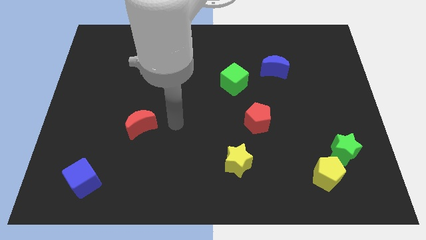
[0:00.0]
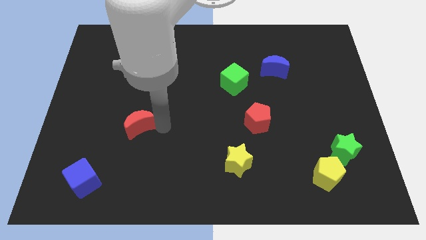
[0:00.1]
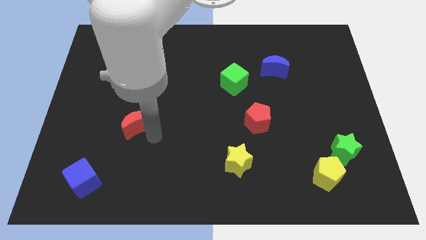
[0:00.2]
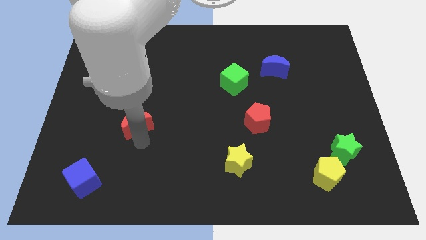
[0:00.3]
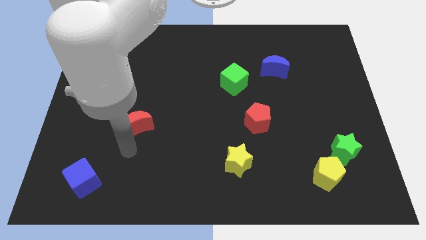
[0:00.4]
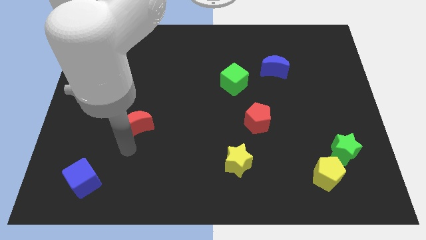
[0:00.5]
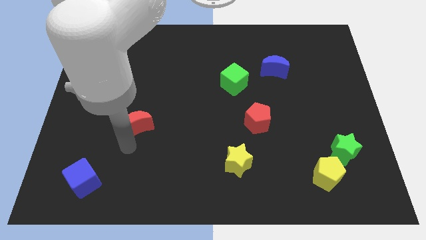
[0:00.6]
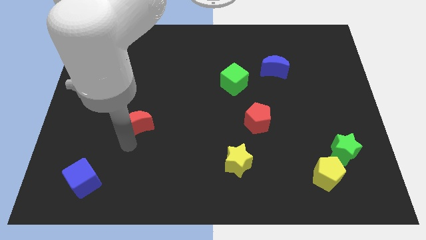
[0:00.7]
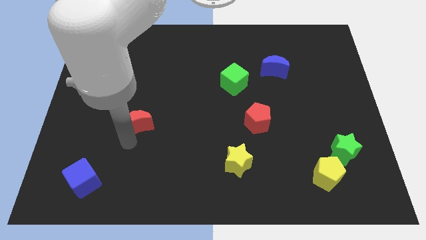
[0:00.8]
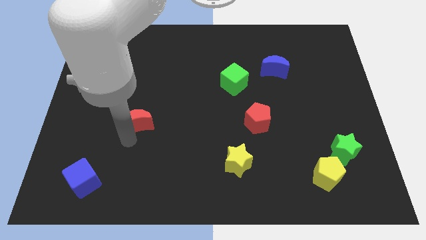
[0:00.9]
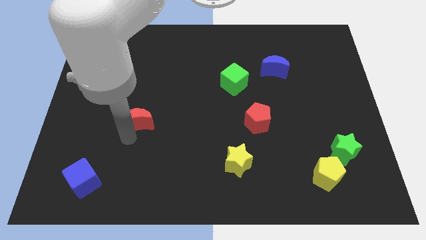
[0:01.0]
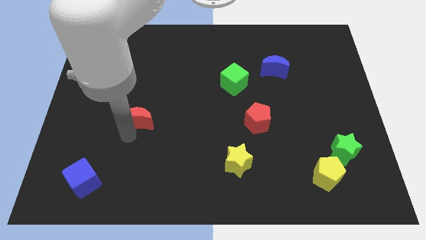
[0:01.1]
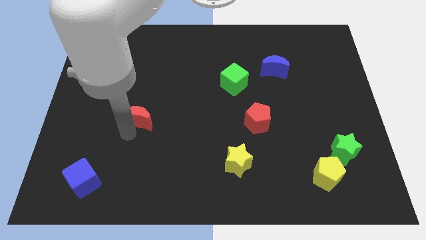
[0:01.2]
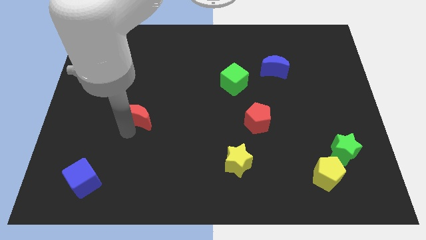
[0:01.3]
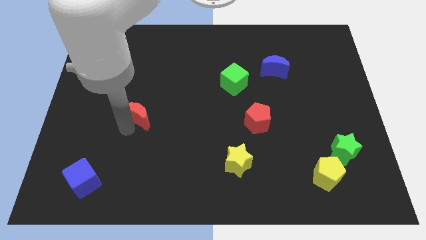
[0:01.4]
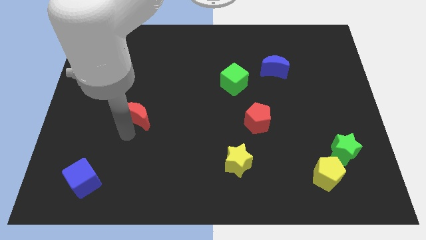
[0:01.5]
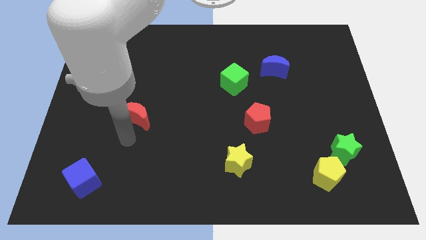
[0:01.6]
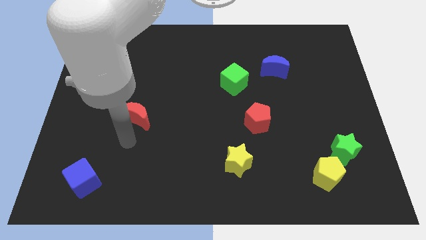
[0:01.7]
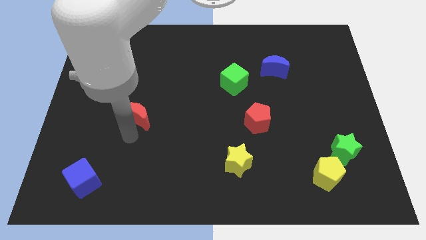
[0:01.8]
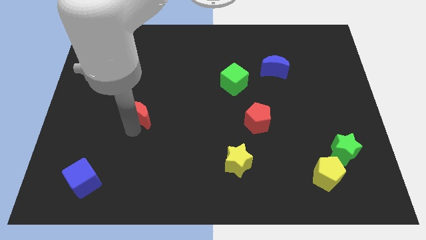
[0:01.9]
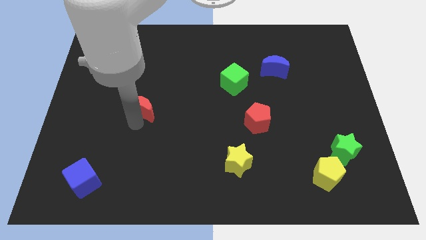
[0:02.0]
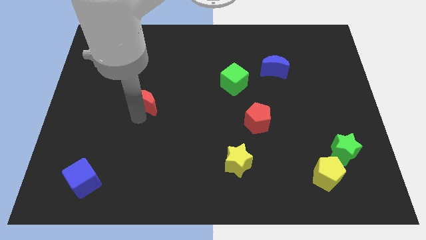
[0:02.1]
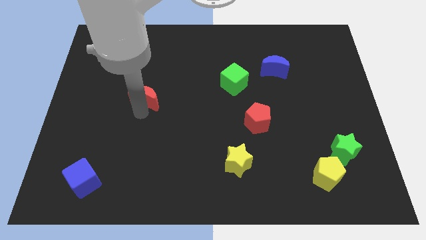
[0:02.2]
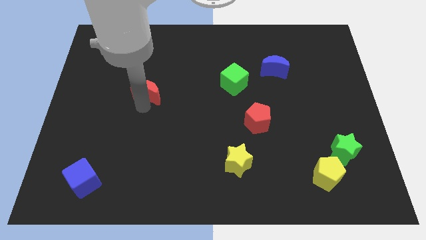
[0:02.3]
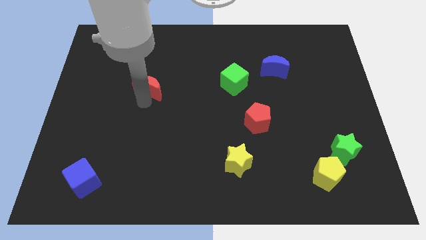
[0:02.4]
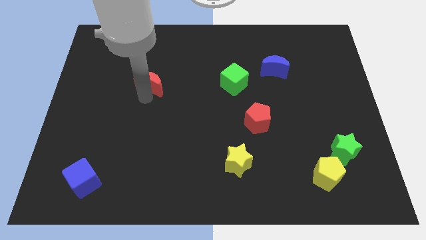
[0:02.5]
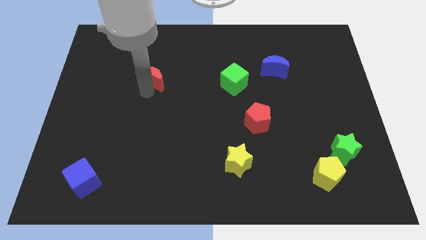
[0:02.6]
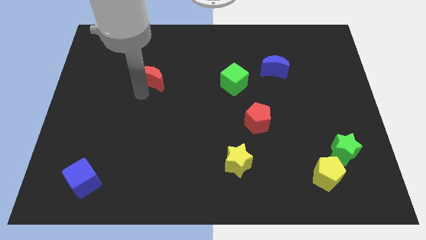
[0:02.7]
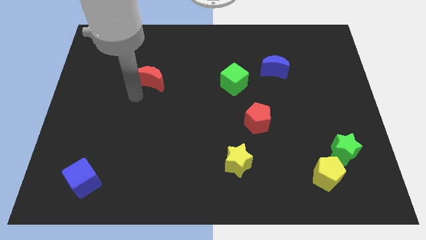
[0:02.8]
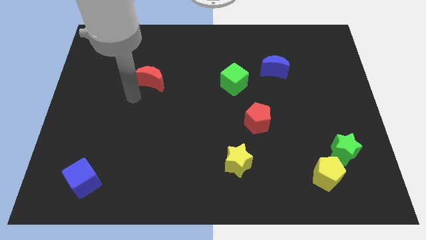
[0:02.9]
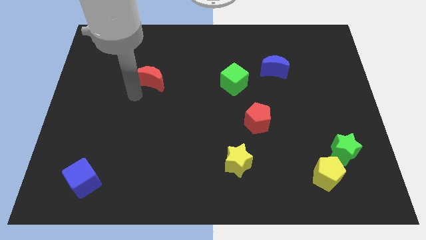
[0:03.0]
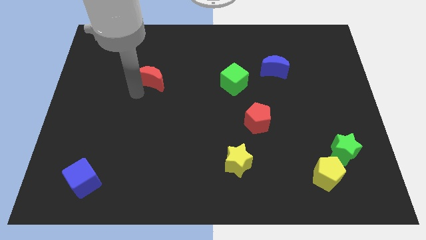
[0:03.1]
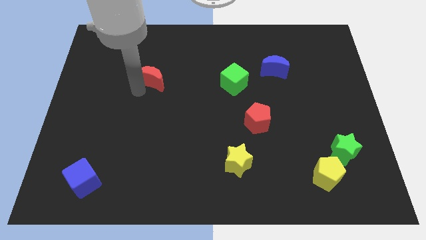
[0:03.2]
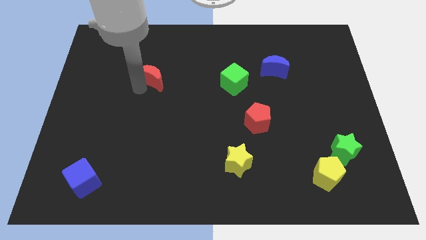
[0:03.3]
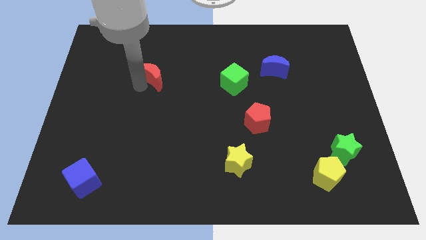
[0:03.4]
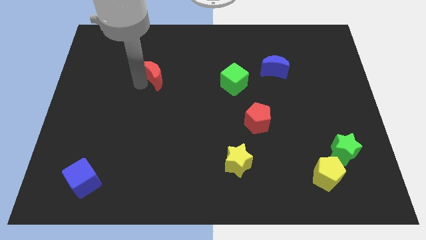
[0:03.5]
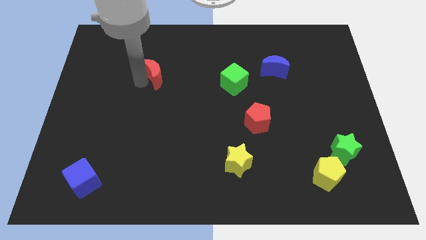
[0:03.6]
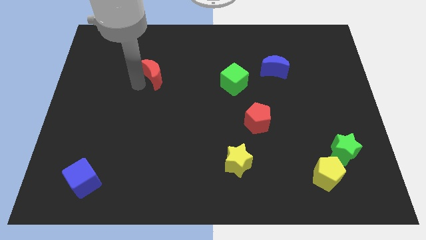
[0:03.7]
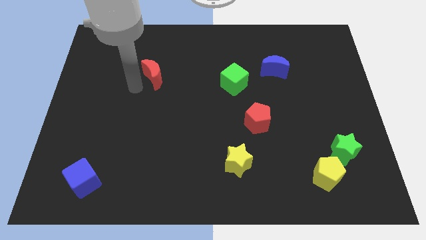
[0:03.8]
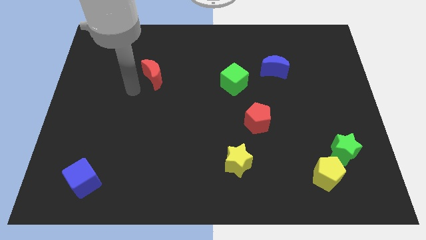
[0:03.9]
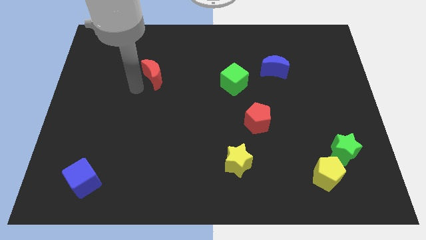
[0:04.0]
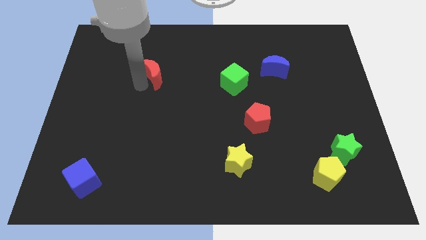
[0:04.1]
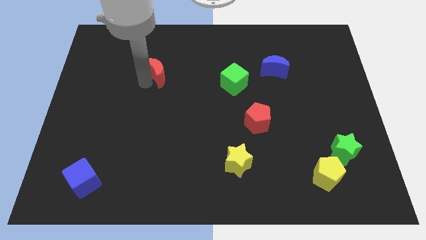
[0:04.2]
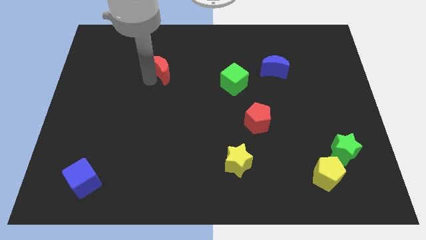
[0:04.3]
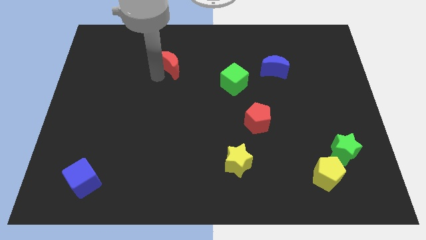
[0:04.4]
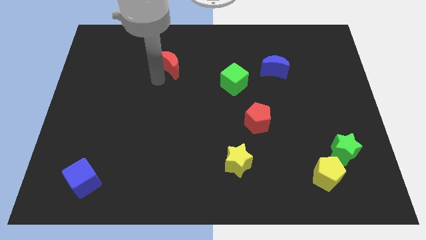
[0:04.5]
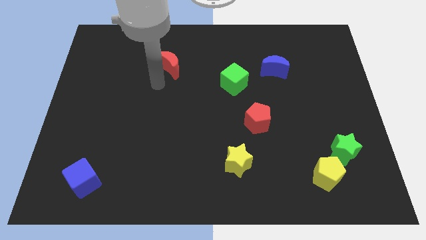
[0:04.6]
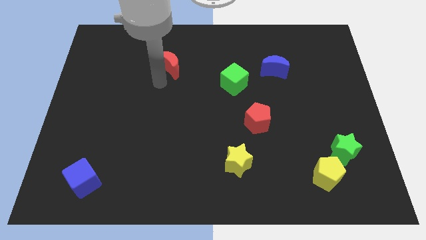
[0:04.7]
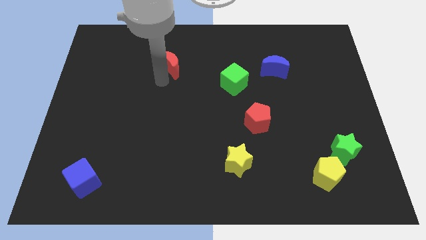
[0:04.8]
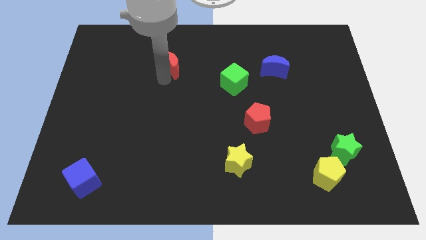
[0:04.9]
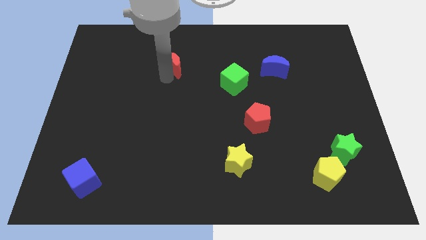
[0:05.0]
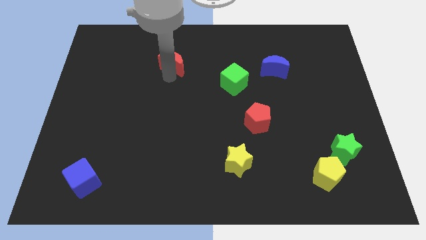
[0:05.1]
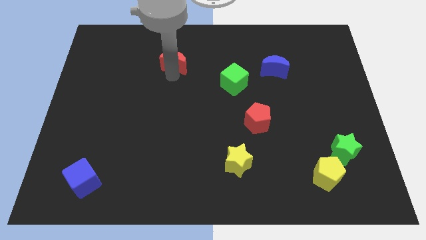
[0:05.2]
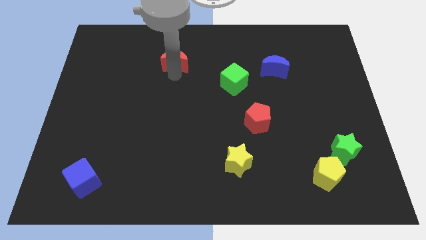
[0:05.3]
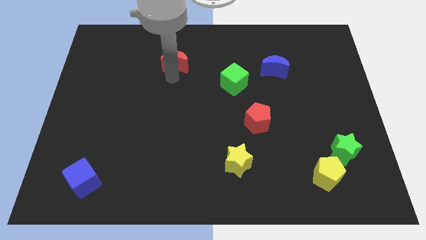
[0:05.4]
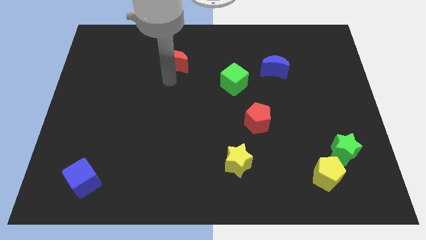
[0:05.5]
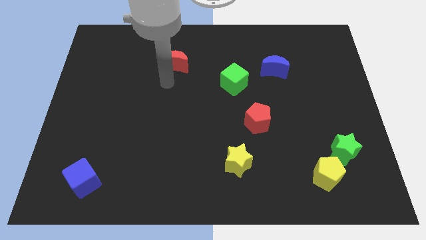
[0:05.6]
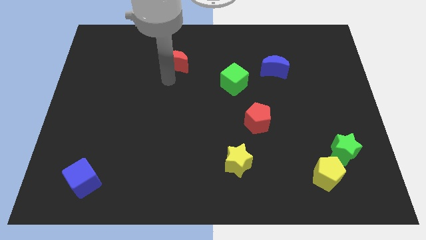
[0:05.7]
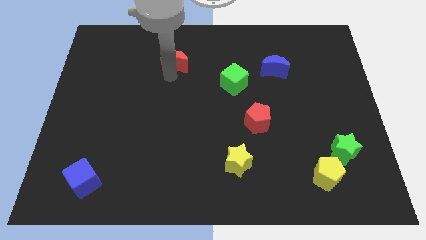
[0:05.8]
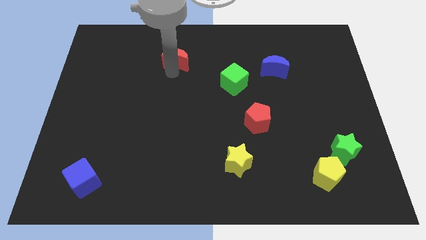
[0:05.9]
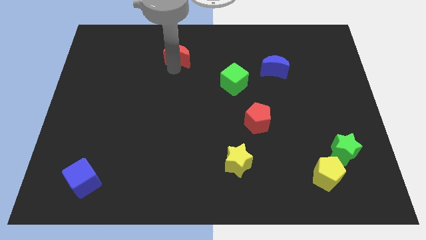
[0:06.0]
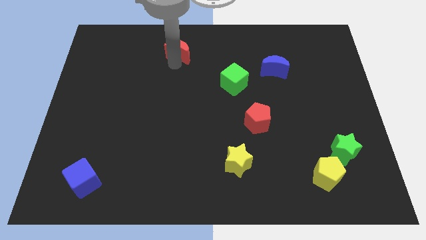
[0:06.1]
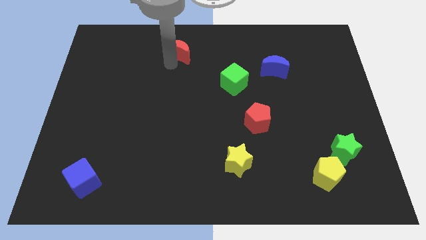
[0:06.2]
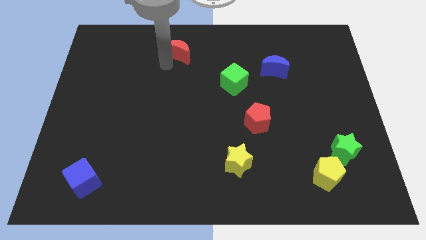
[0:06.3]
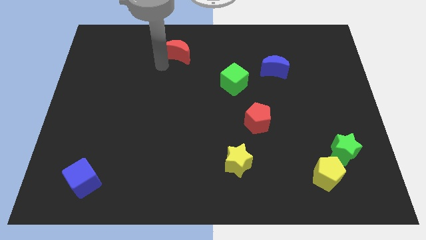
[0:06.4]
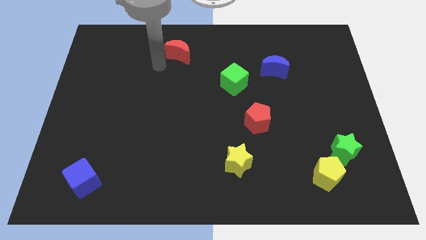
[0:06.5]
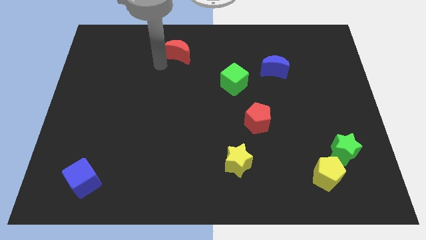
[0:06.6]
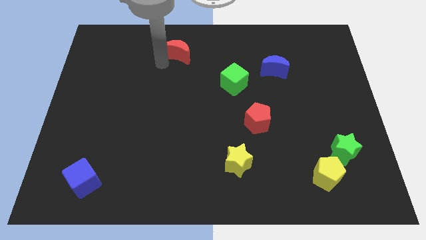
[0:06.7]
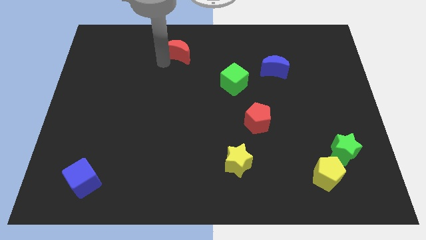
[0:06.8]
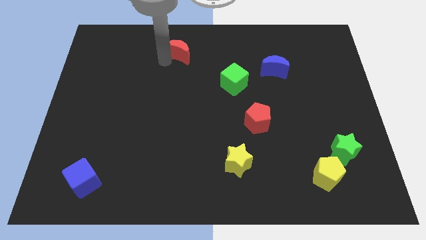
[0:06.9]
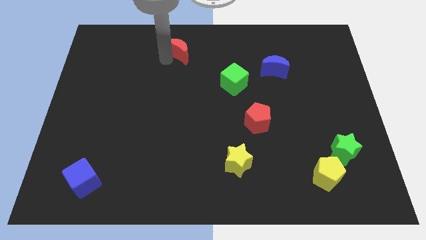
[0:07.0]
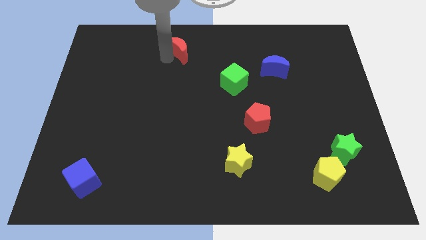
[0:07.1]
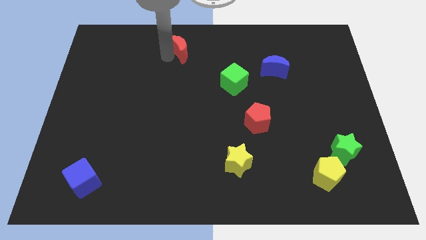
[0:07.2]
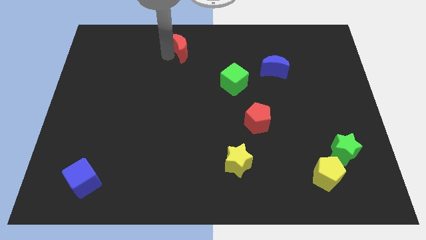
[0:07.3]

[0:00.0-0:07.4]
put the red moon to the towards your base
